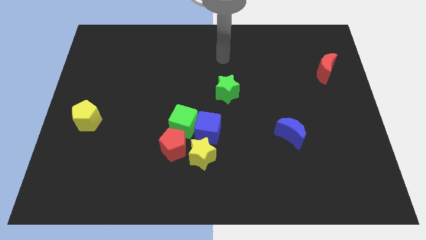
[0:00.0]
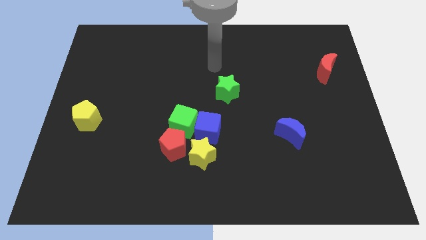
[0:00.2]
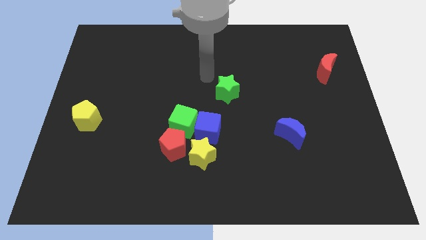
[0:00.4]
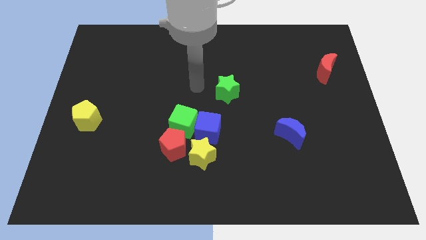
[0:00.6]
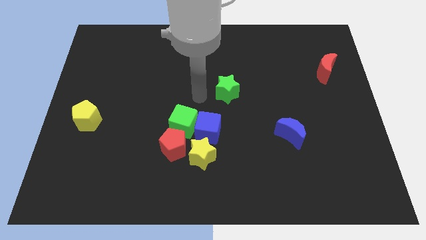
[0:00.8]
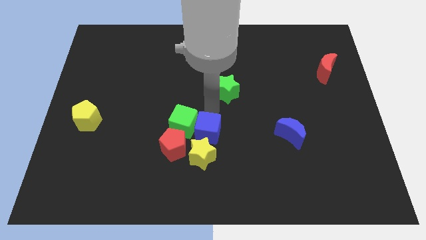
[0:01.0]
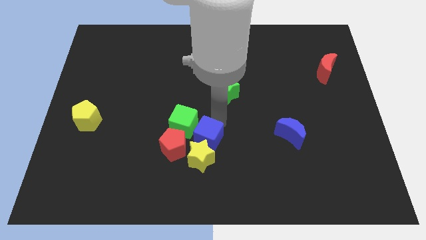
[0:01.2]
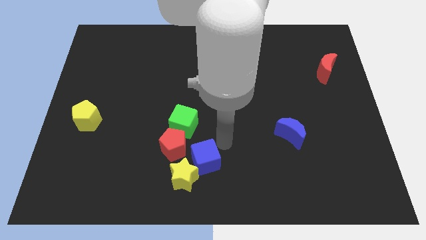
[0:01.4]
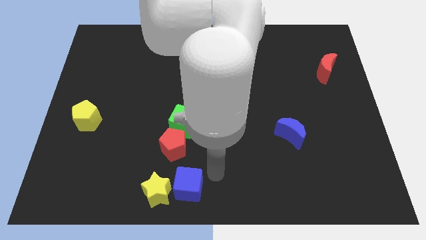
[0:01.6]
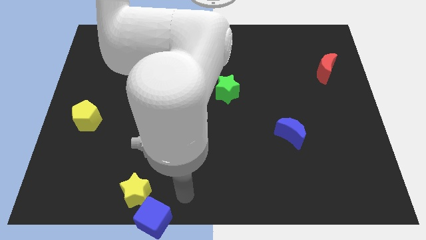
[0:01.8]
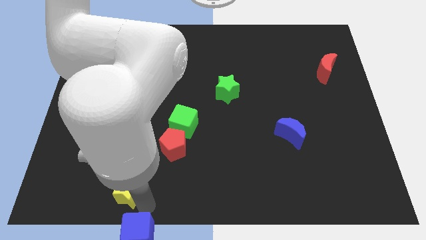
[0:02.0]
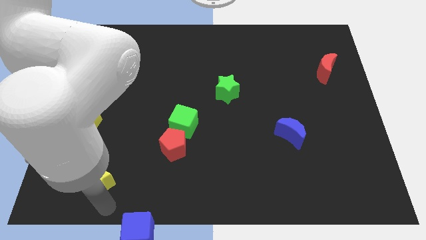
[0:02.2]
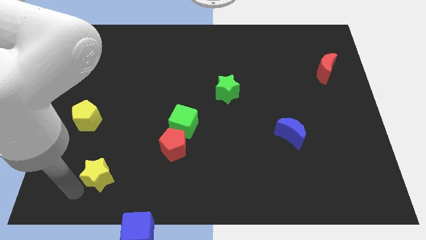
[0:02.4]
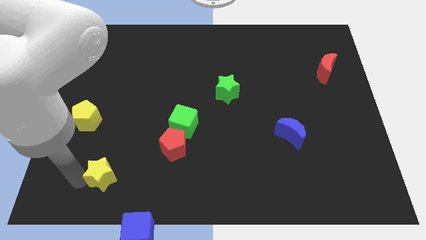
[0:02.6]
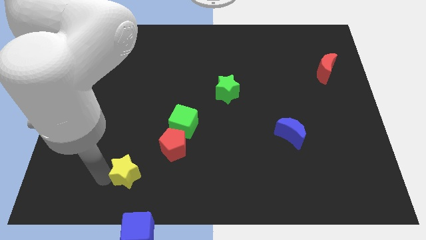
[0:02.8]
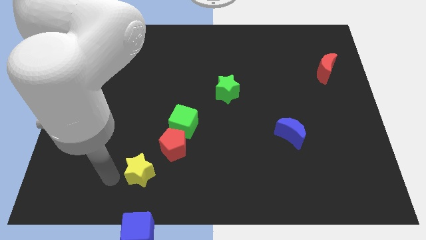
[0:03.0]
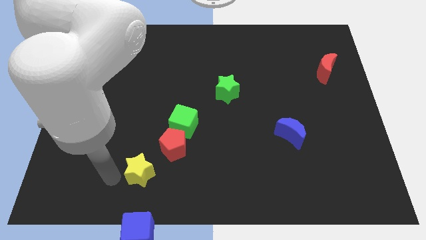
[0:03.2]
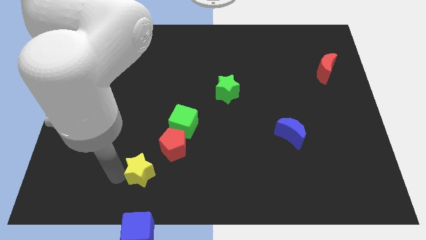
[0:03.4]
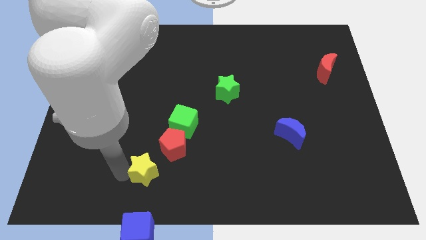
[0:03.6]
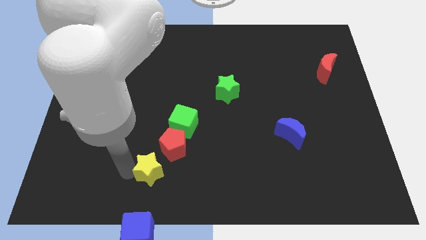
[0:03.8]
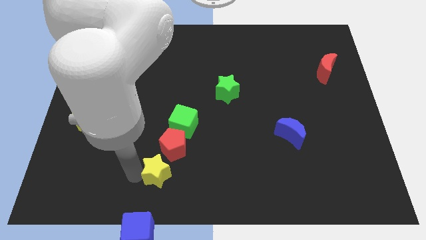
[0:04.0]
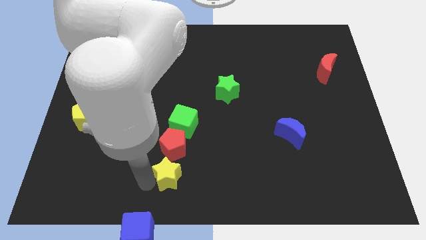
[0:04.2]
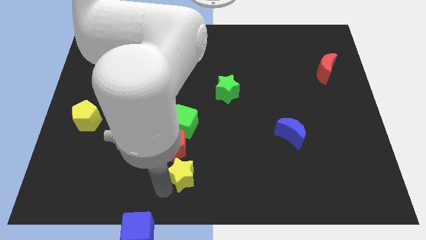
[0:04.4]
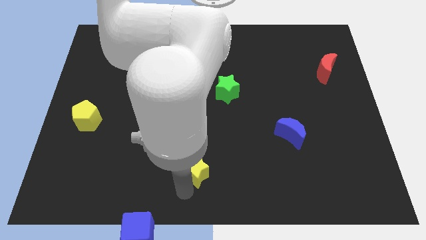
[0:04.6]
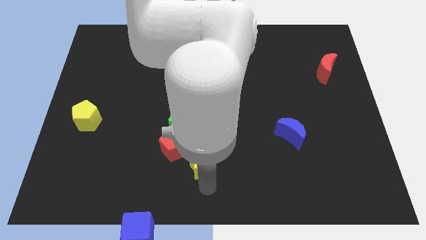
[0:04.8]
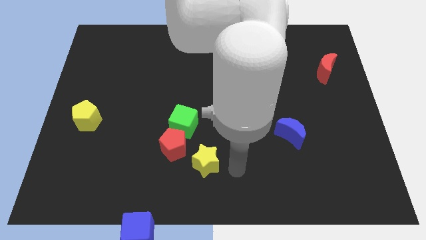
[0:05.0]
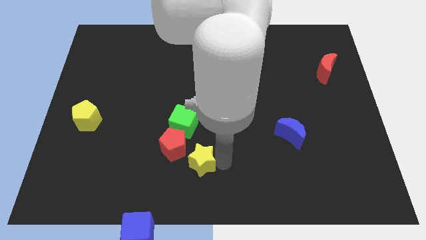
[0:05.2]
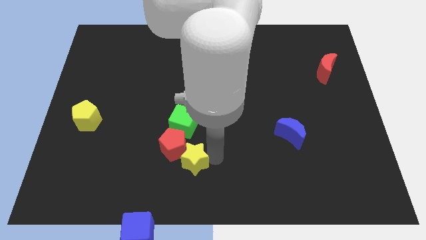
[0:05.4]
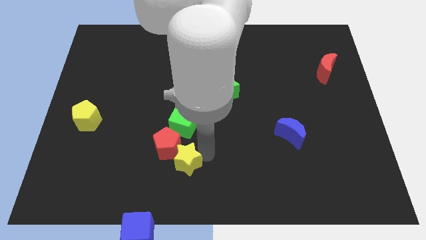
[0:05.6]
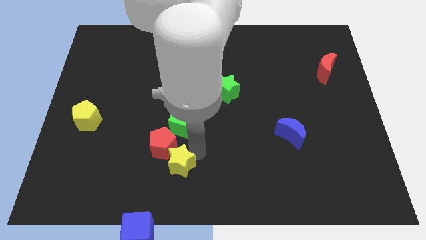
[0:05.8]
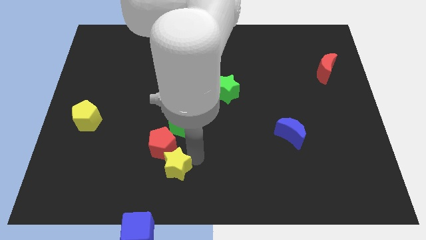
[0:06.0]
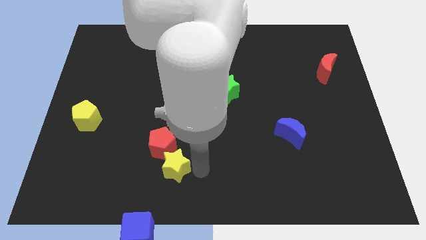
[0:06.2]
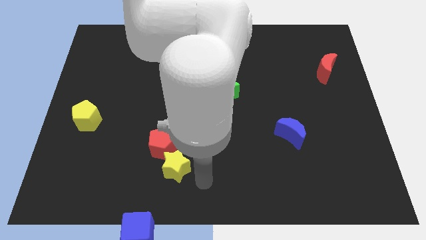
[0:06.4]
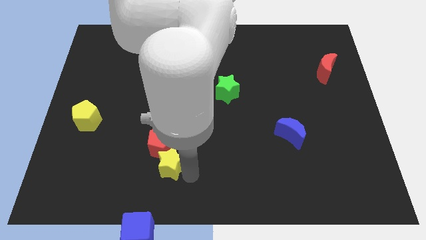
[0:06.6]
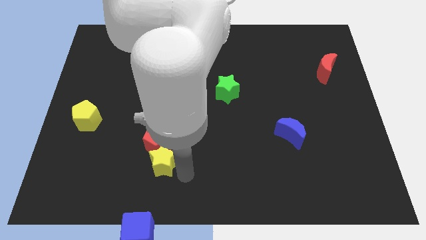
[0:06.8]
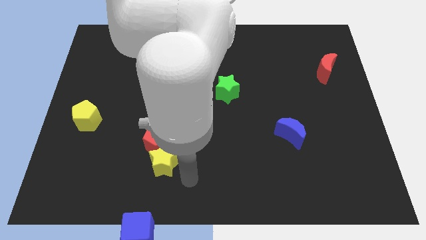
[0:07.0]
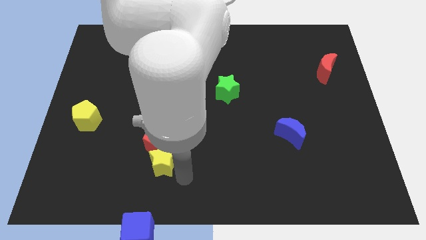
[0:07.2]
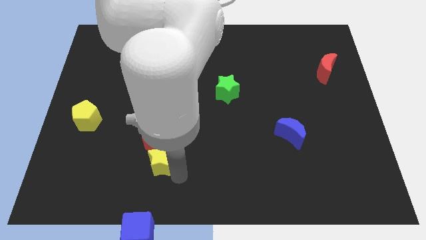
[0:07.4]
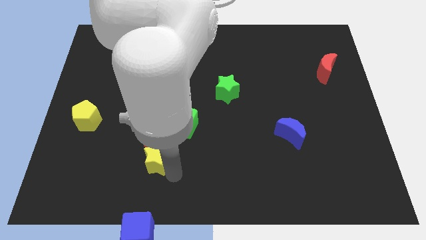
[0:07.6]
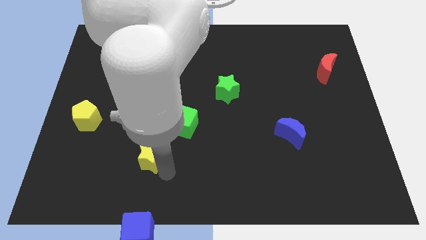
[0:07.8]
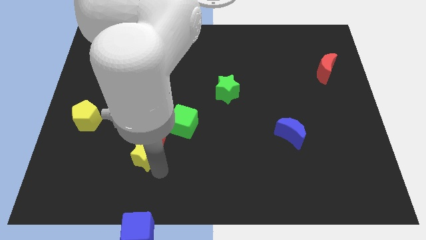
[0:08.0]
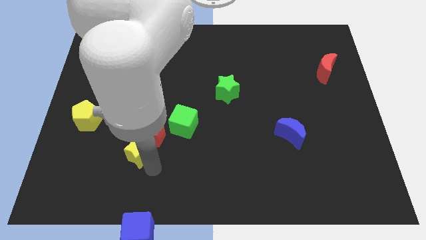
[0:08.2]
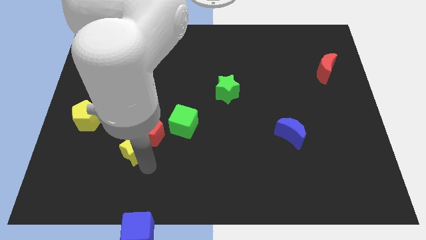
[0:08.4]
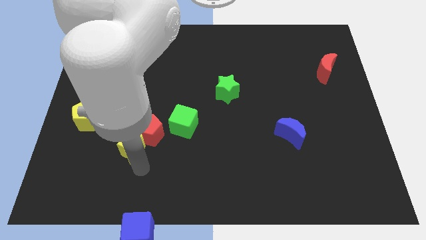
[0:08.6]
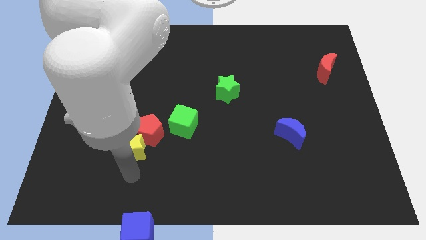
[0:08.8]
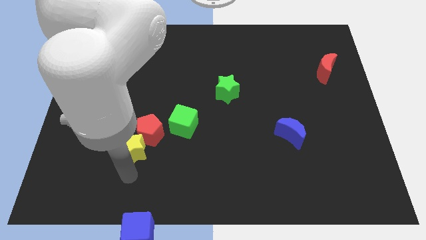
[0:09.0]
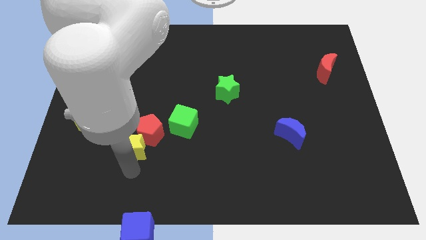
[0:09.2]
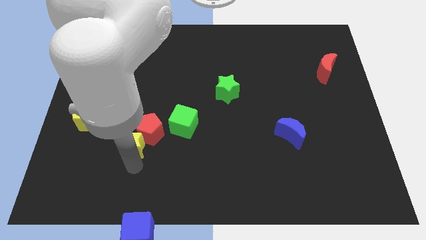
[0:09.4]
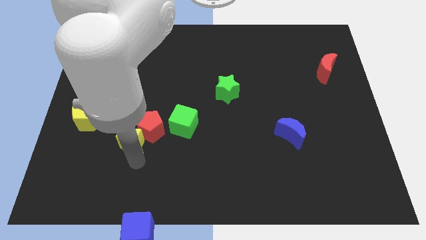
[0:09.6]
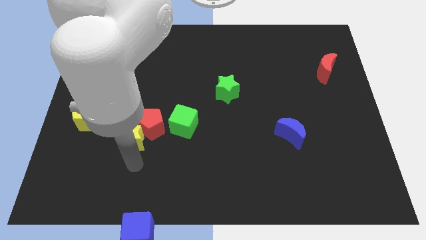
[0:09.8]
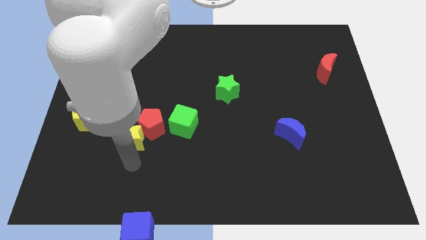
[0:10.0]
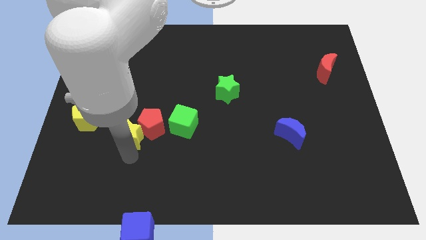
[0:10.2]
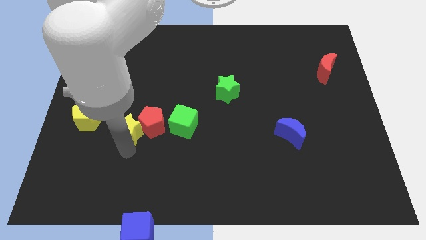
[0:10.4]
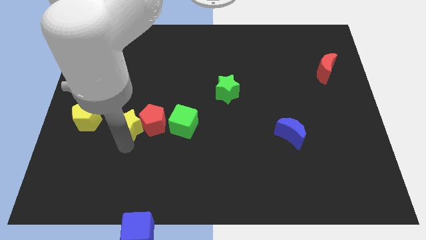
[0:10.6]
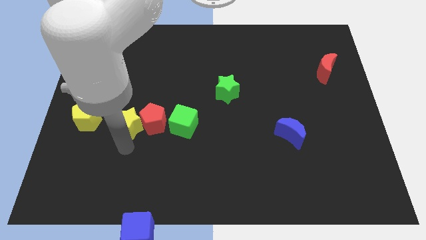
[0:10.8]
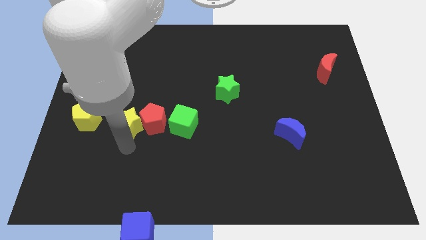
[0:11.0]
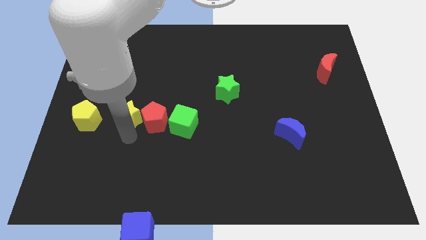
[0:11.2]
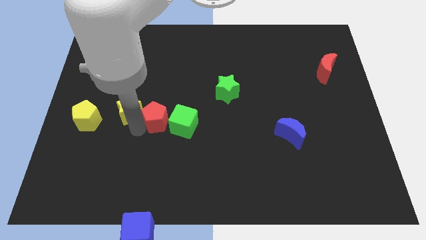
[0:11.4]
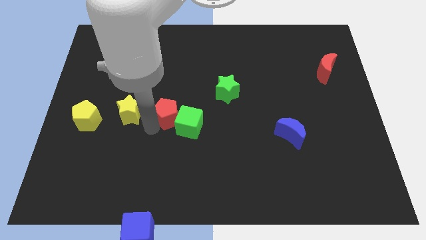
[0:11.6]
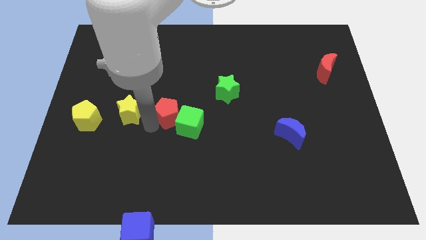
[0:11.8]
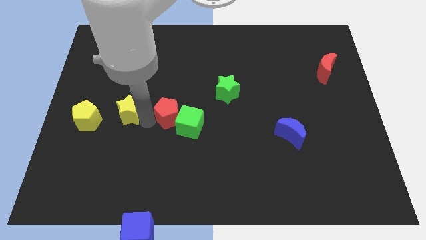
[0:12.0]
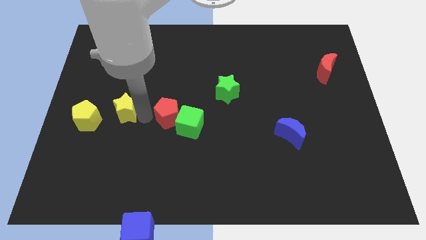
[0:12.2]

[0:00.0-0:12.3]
push the yellow star to the top right side of the yellow pentagon

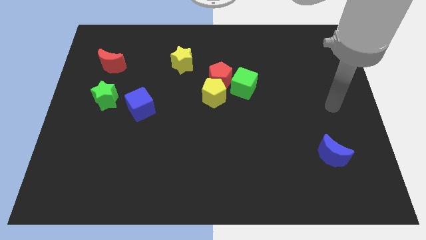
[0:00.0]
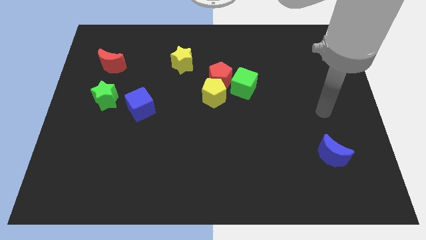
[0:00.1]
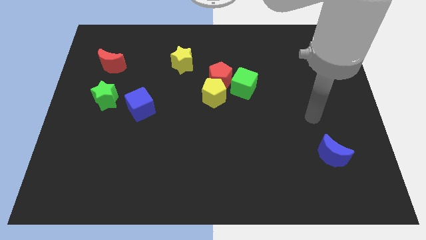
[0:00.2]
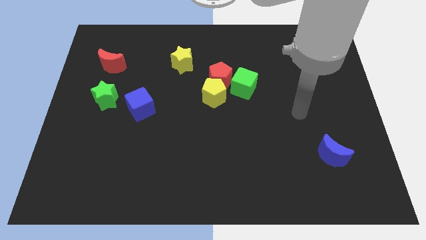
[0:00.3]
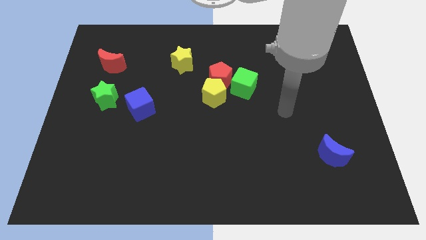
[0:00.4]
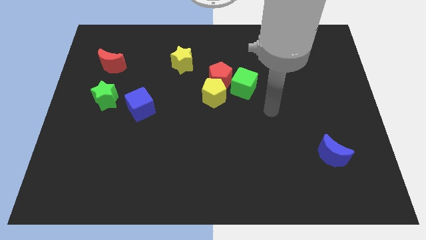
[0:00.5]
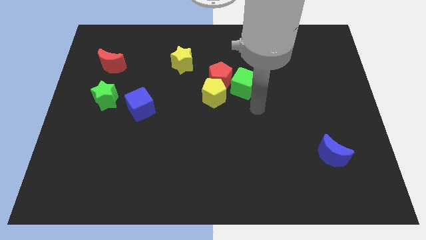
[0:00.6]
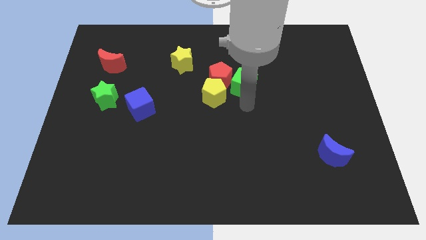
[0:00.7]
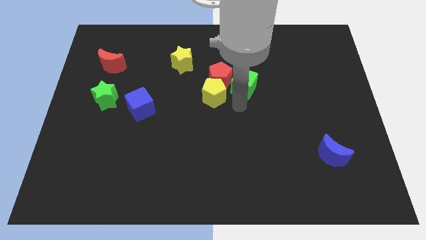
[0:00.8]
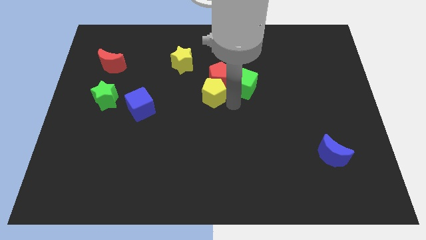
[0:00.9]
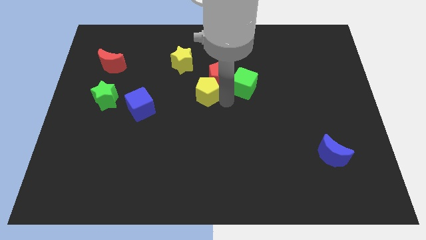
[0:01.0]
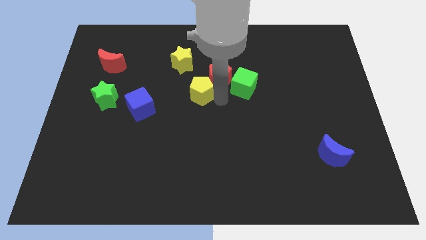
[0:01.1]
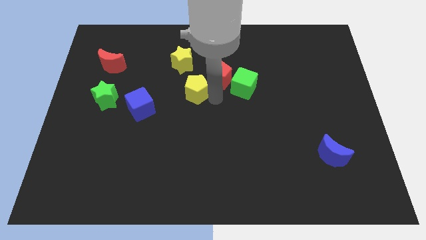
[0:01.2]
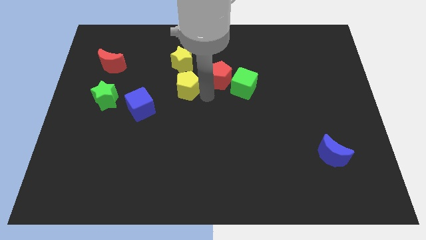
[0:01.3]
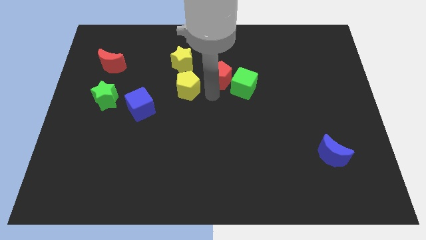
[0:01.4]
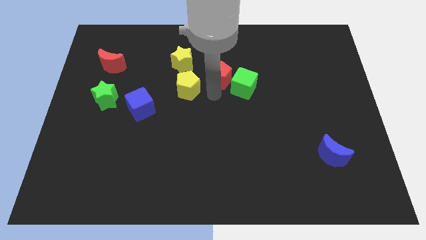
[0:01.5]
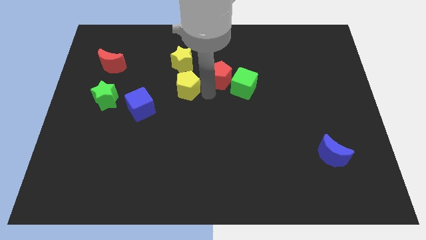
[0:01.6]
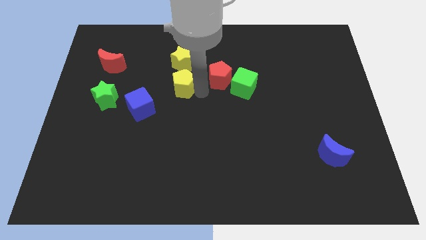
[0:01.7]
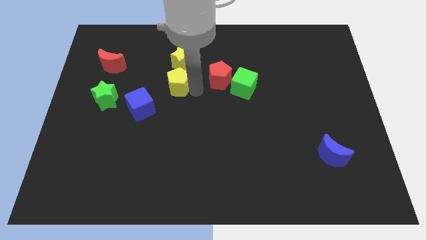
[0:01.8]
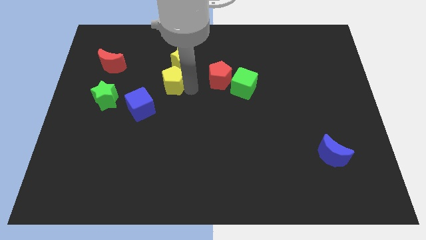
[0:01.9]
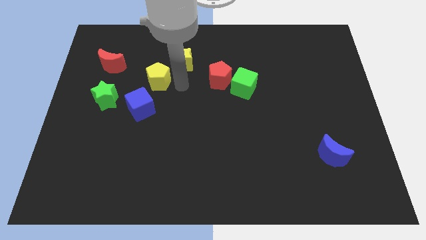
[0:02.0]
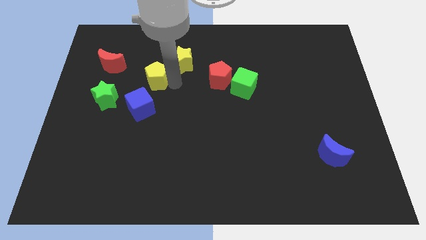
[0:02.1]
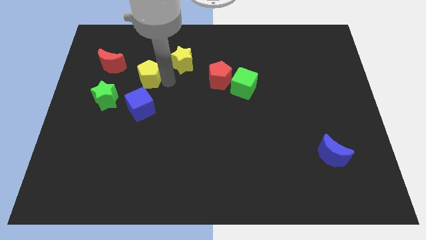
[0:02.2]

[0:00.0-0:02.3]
put the yellow pentagon to the top right of the green star
